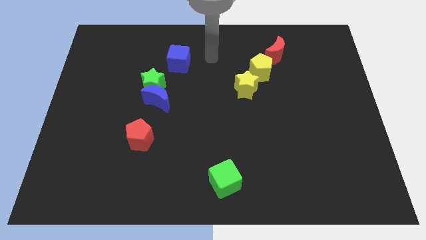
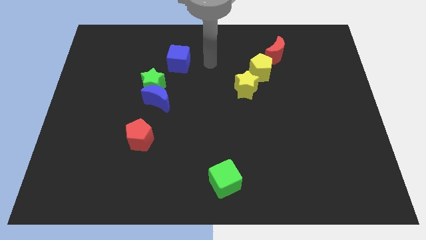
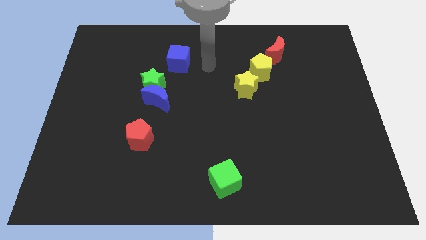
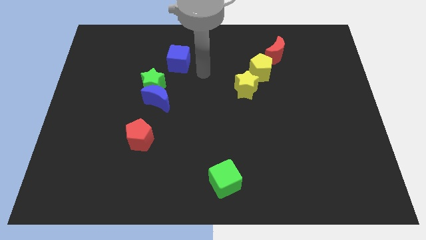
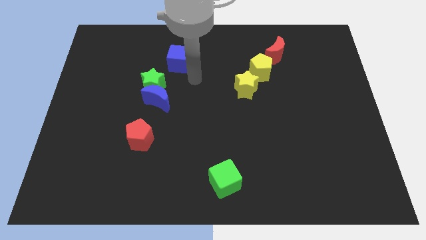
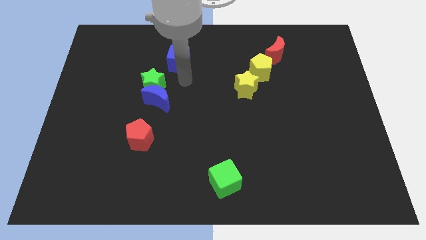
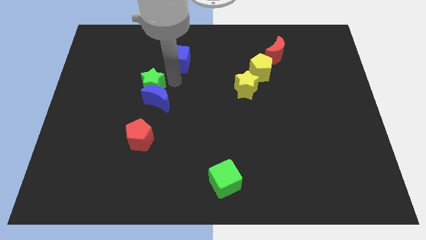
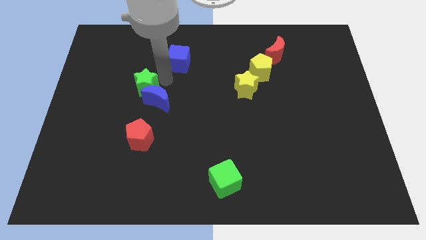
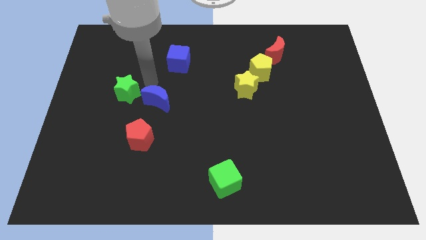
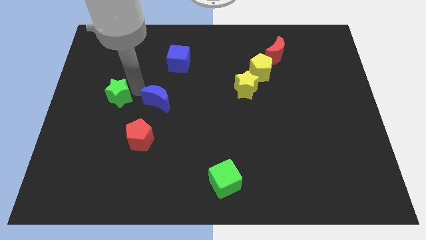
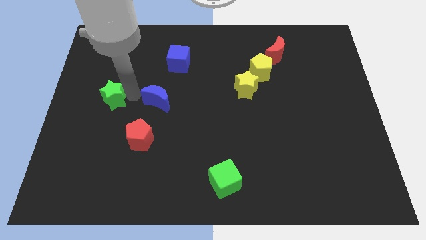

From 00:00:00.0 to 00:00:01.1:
separate the blue moon from the green star

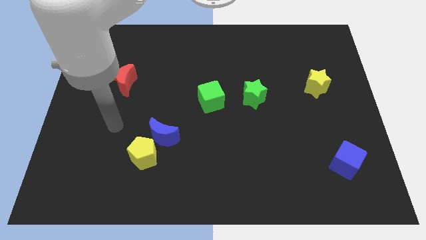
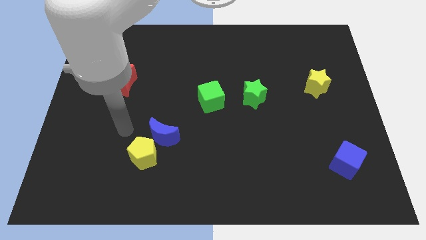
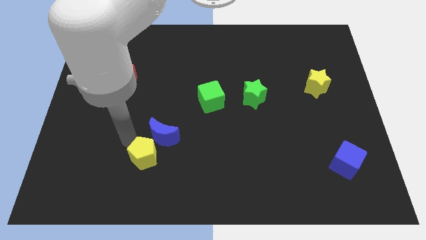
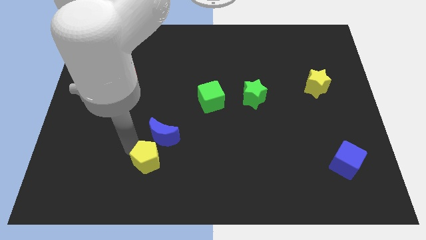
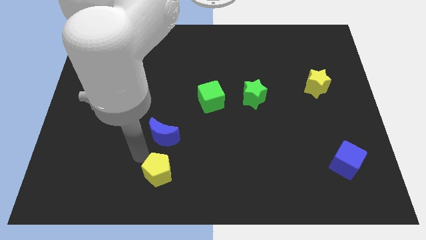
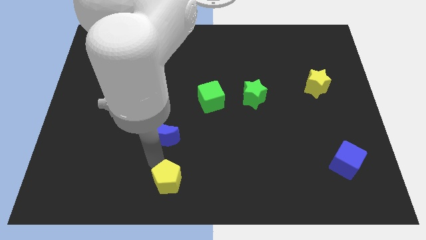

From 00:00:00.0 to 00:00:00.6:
pull the blue moon apart from the yellow pentagon

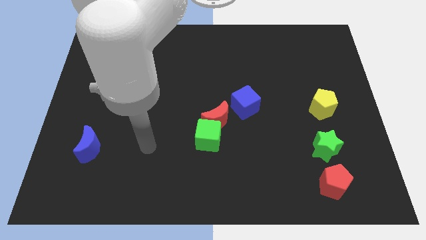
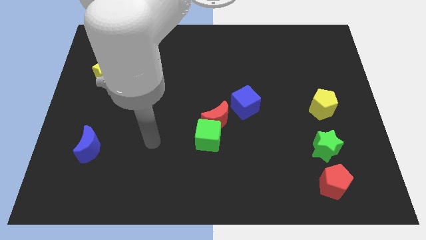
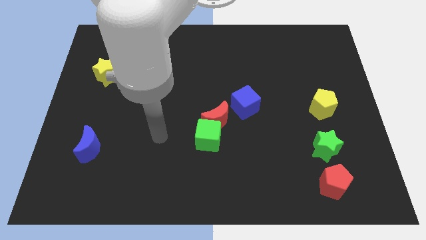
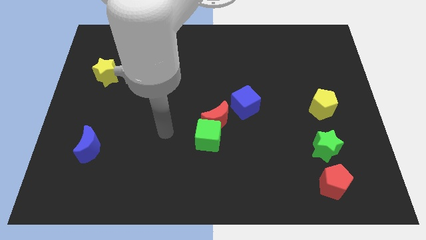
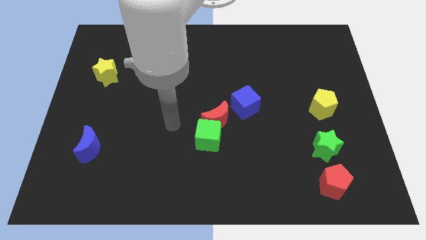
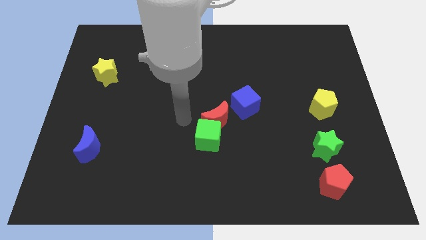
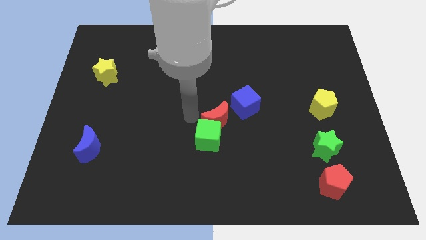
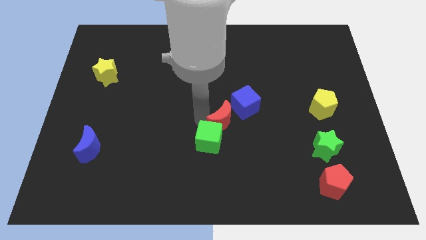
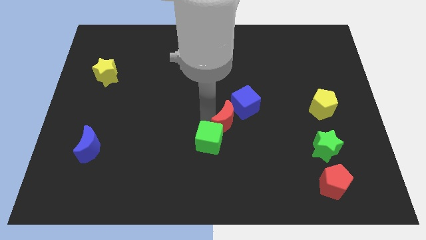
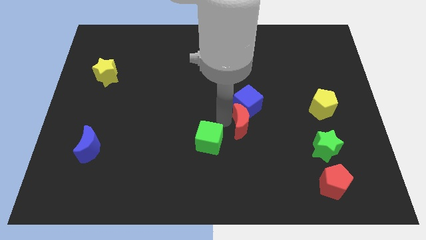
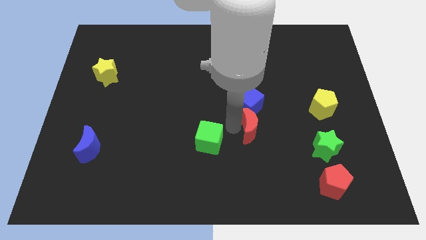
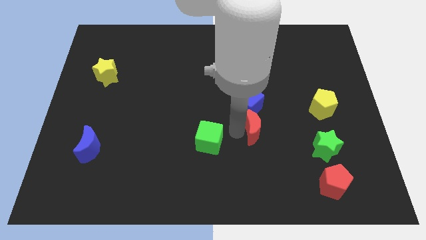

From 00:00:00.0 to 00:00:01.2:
pull the green cube apart from the red moon

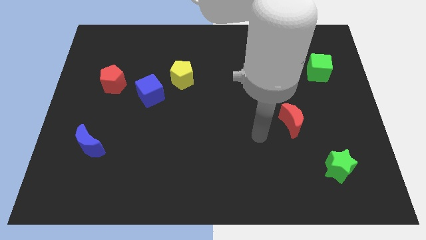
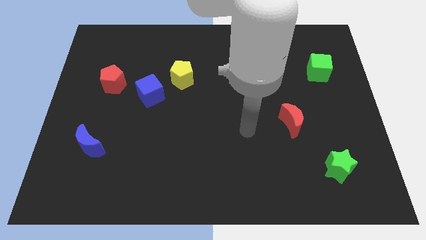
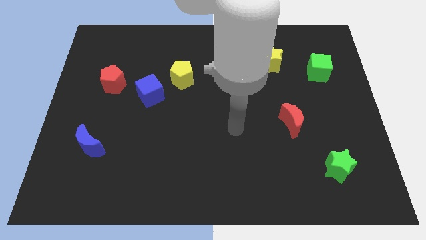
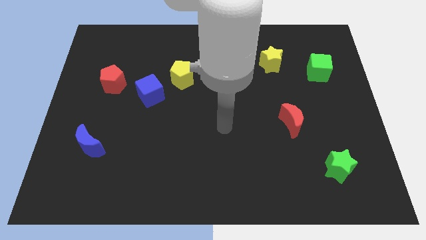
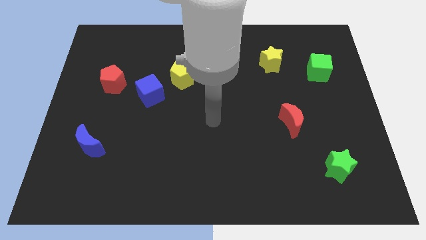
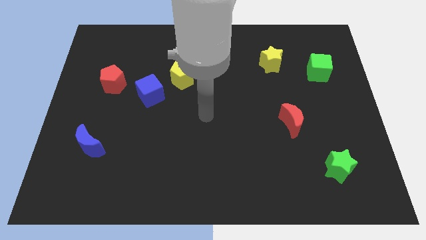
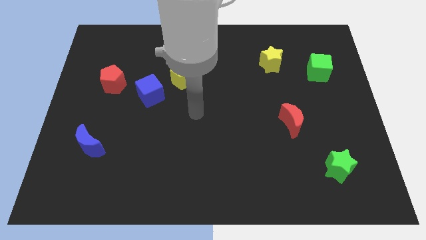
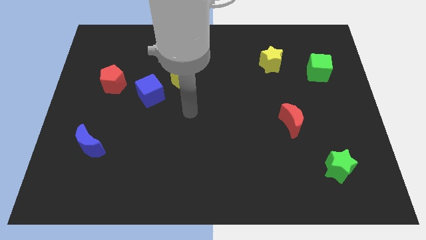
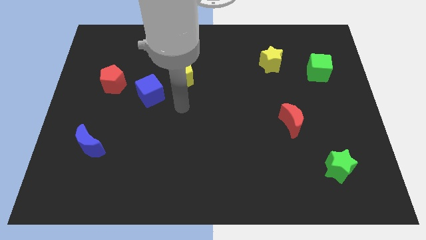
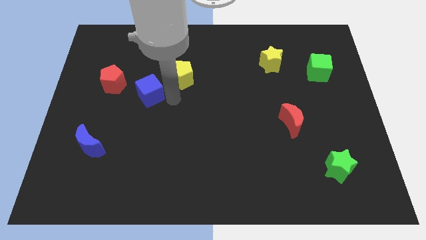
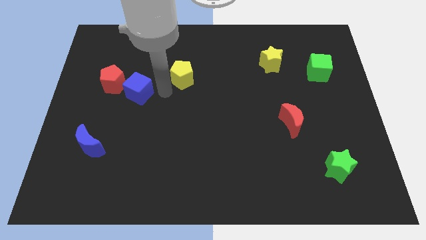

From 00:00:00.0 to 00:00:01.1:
pull the yellow pentagon apart from the blue cube

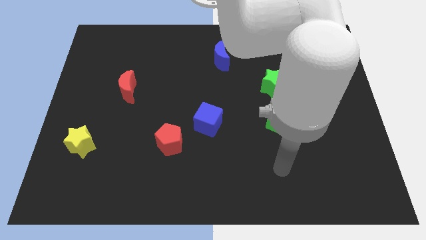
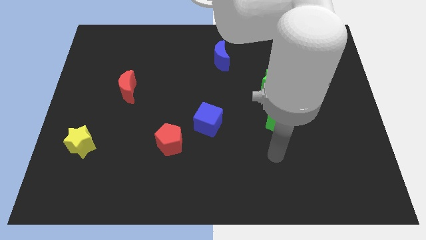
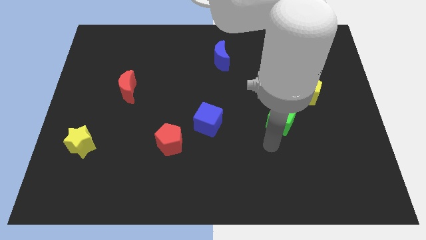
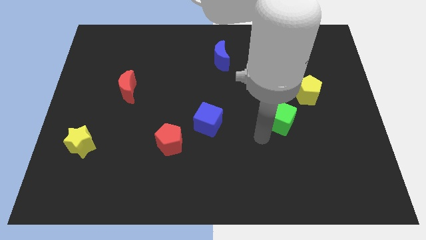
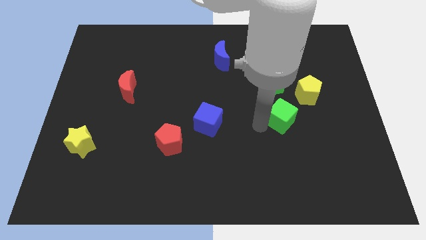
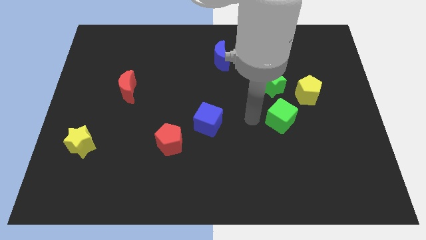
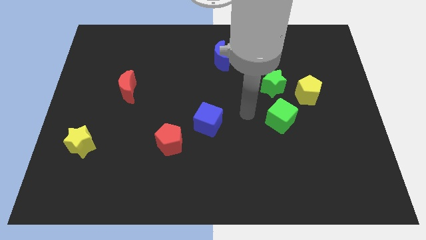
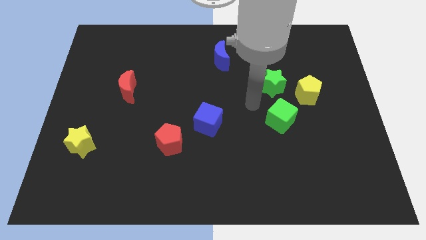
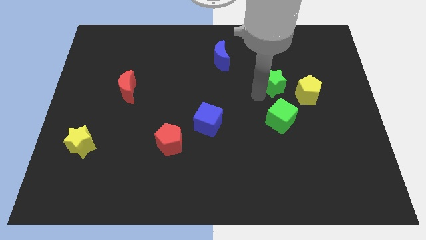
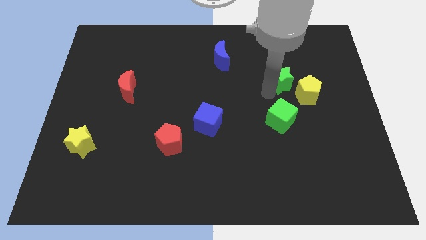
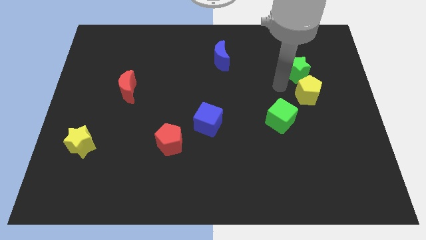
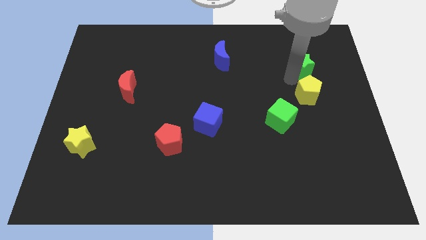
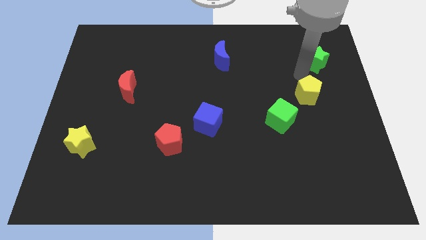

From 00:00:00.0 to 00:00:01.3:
pull the yellow pentagon apart from the green star

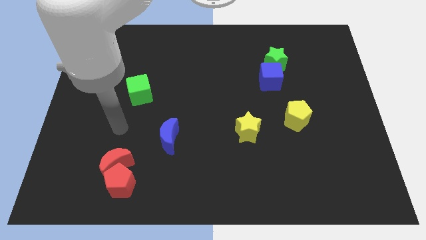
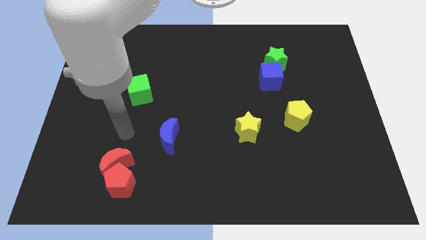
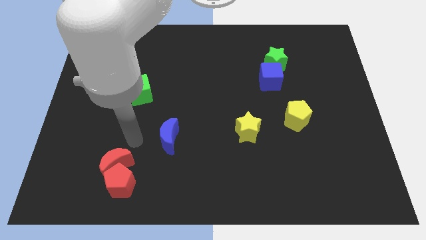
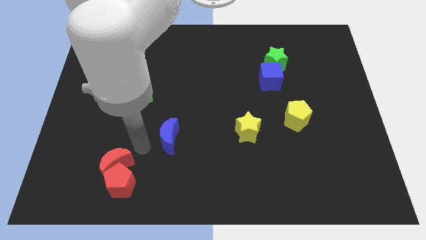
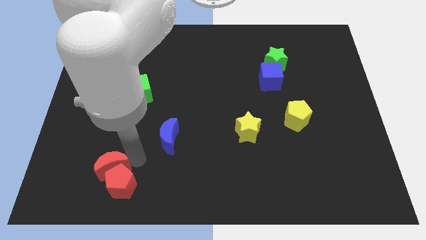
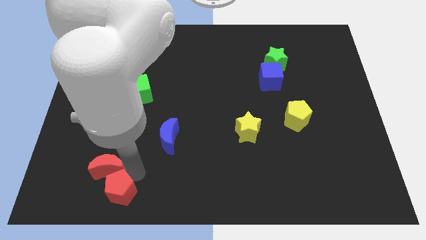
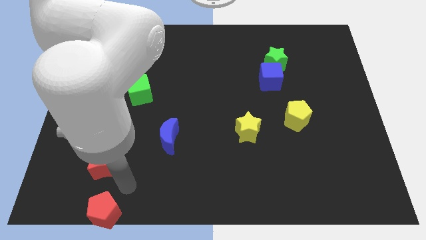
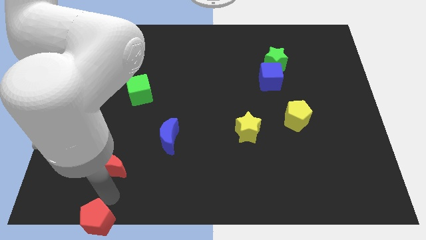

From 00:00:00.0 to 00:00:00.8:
pull the red moon apart from the red pentagon

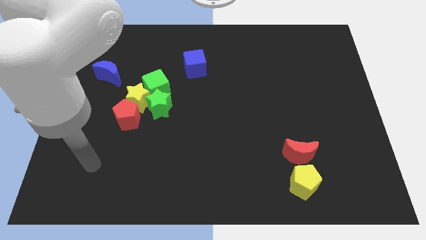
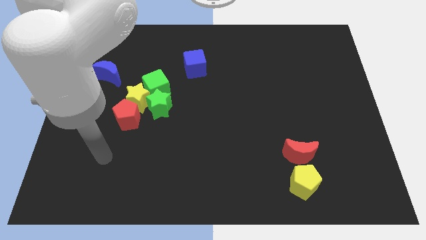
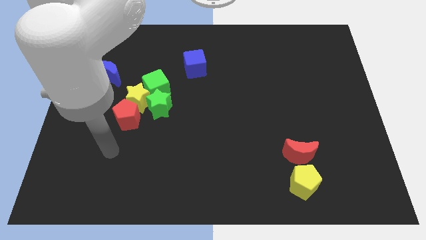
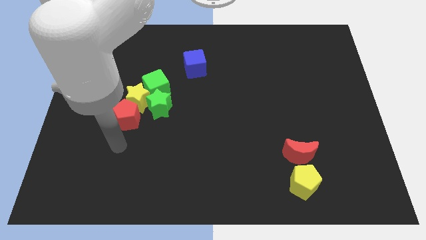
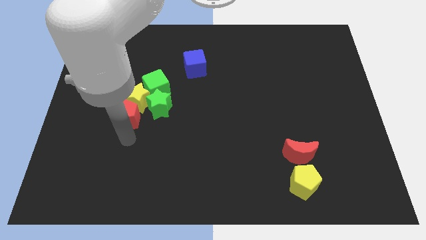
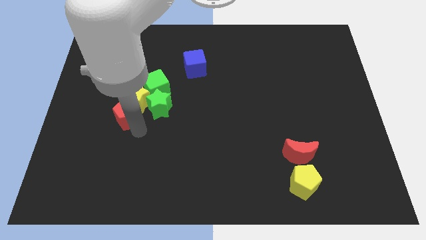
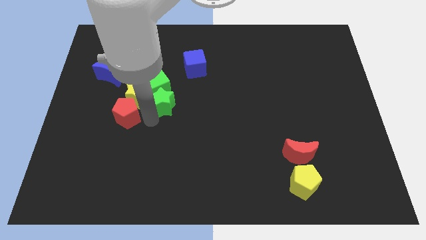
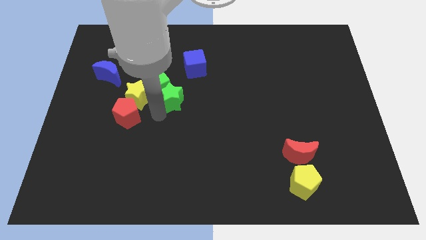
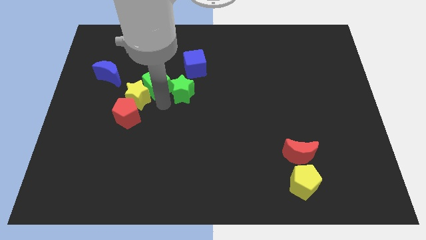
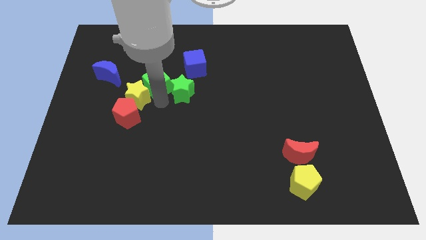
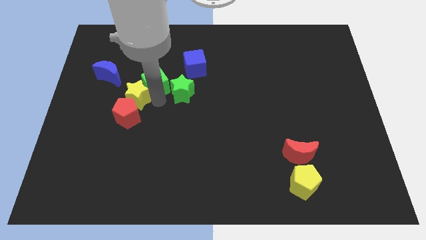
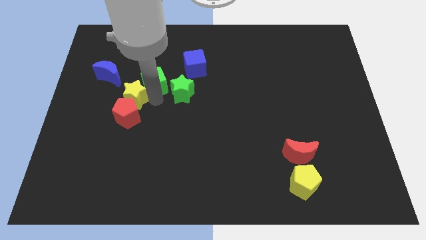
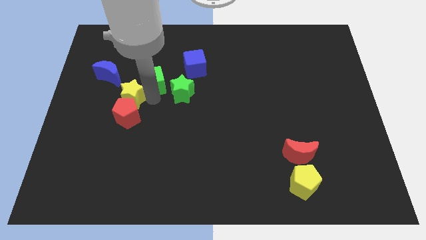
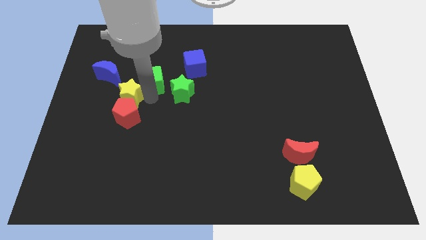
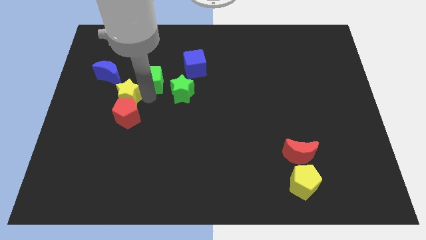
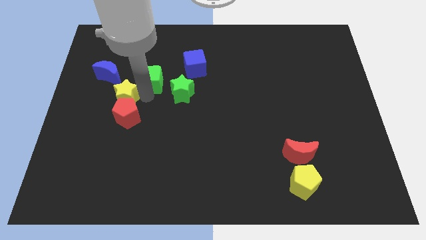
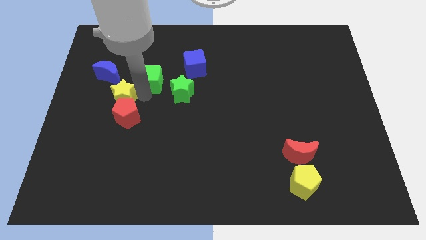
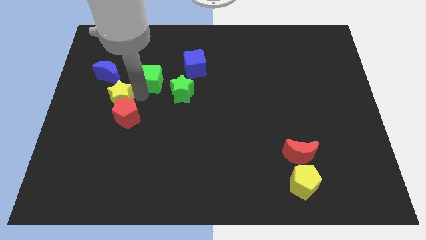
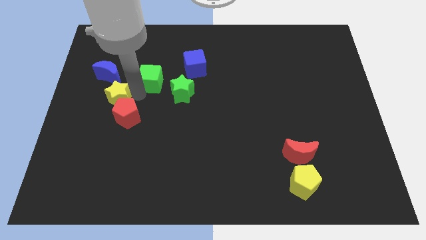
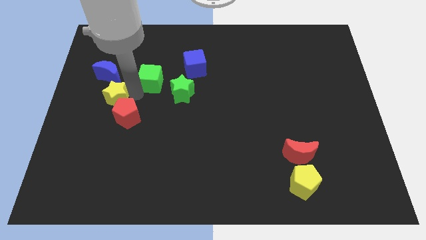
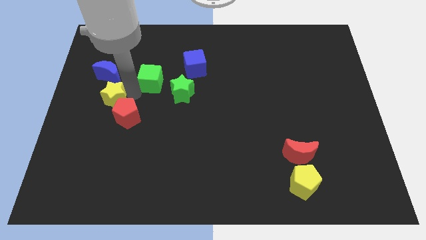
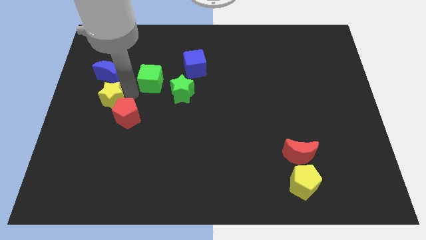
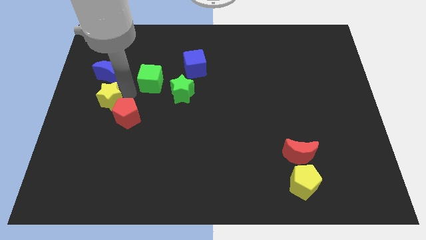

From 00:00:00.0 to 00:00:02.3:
separate the yellow star from the red pentagon, green cube, and green star

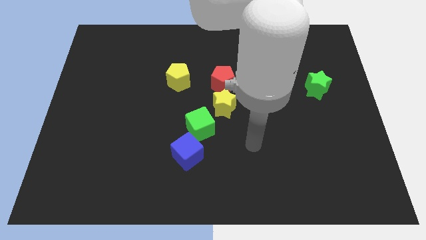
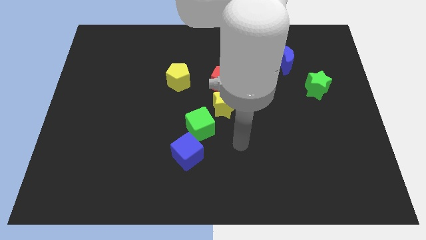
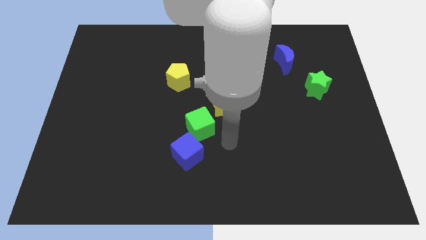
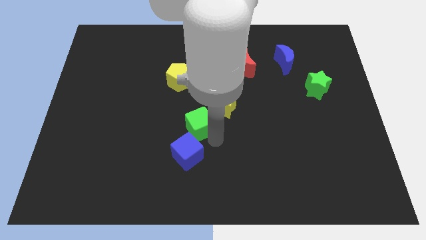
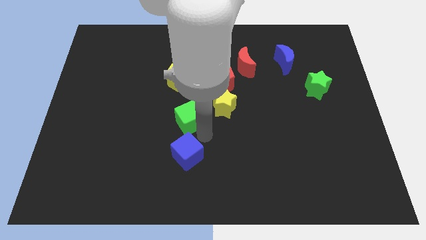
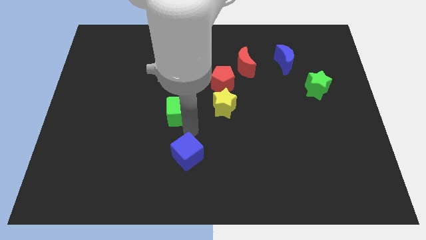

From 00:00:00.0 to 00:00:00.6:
separate the blue cube from the green cube

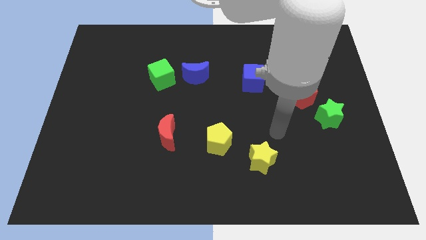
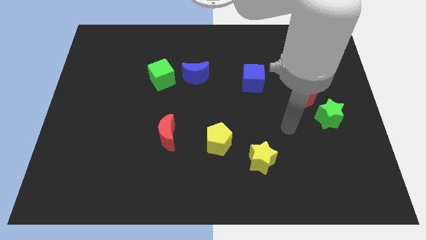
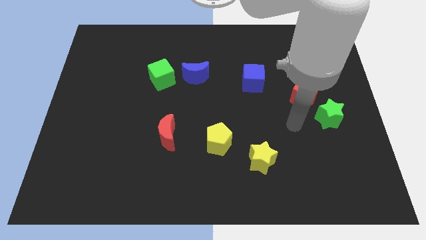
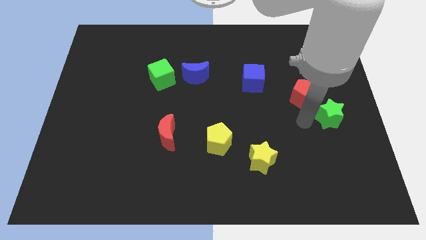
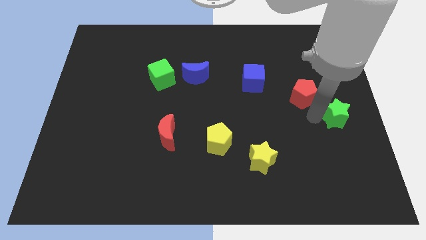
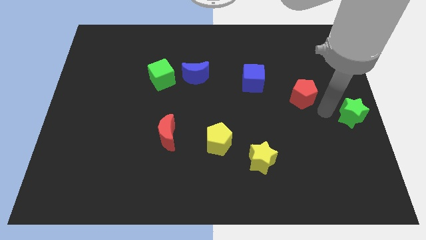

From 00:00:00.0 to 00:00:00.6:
pull the red pentagon apart from the green star
